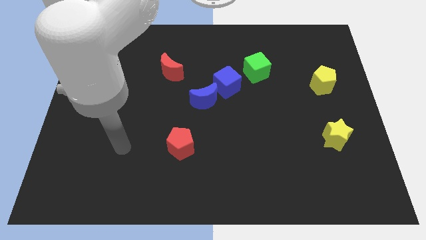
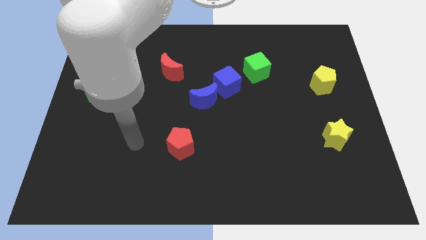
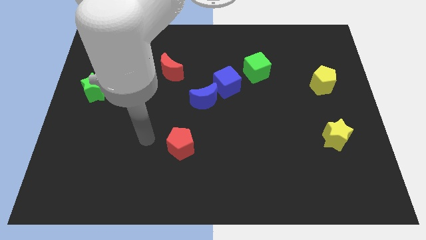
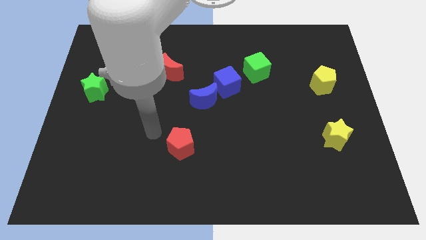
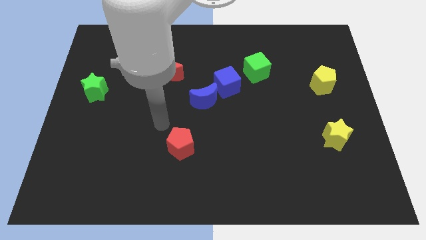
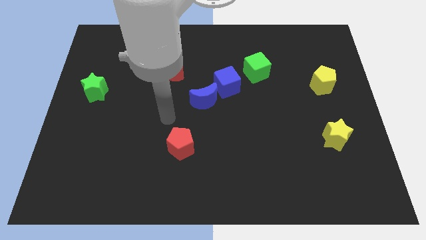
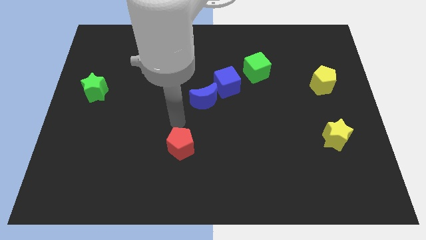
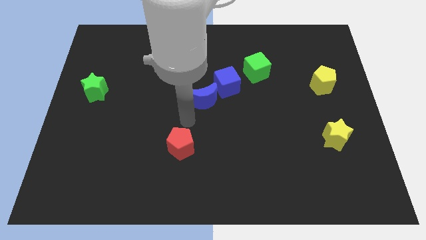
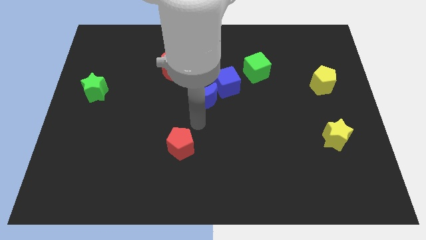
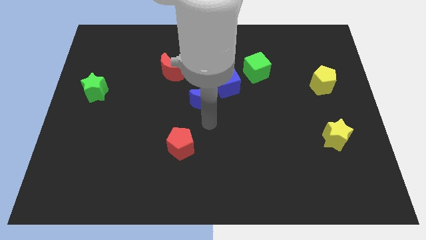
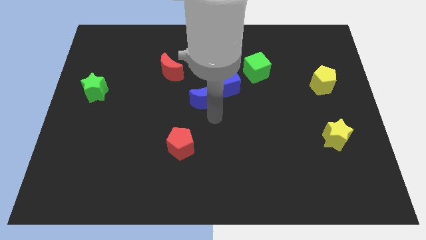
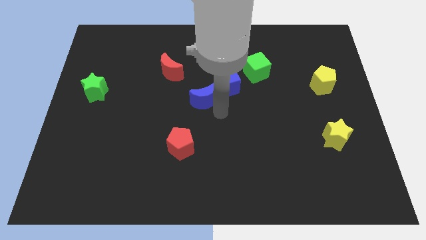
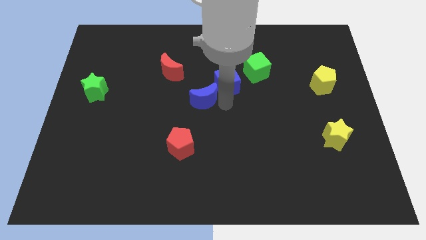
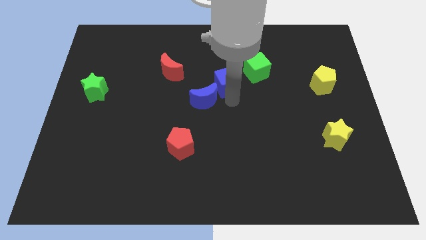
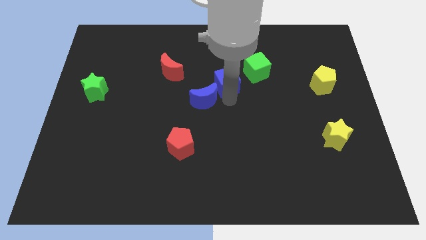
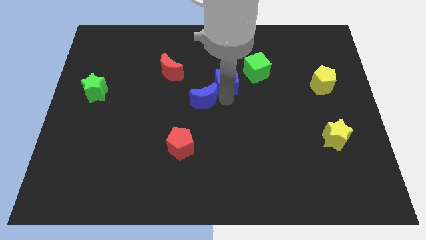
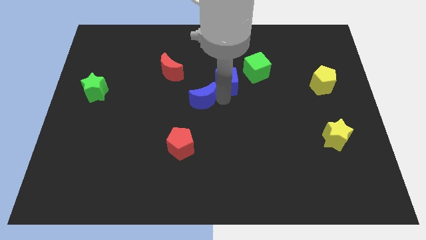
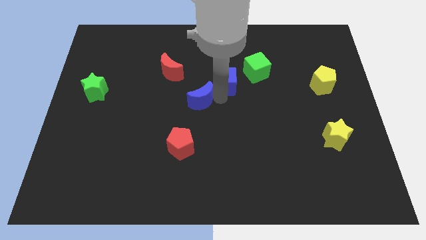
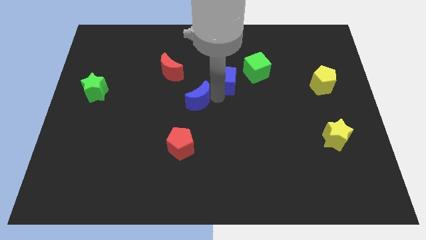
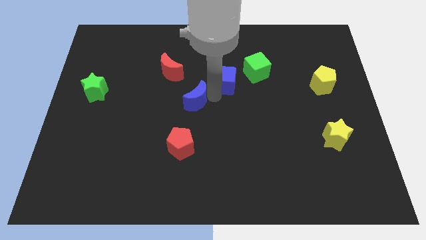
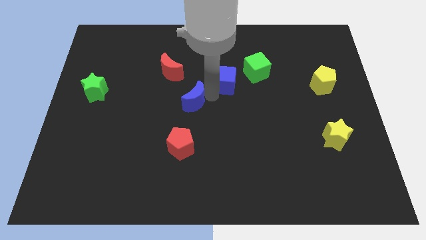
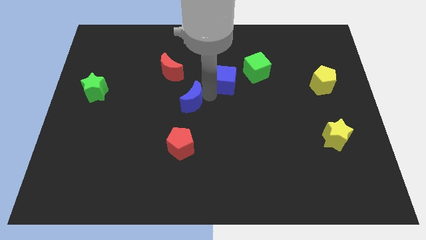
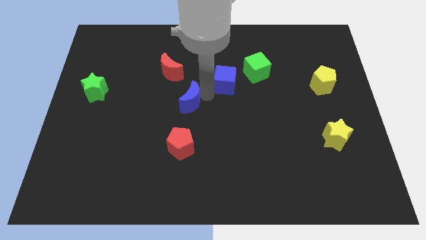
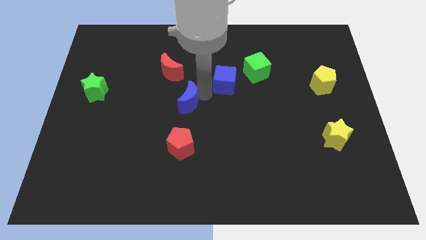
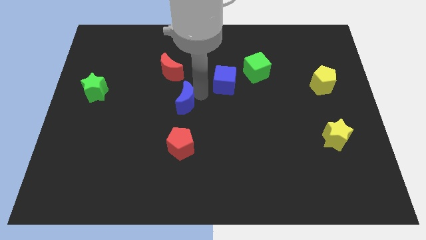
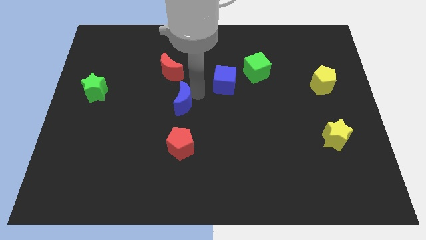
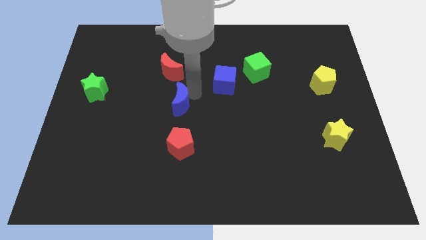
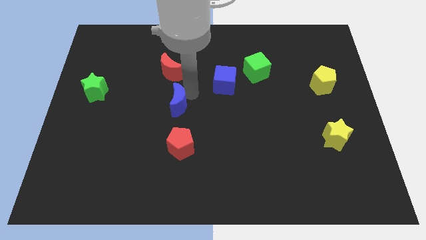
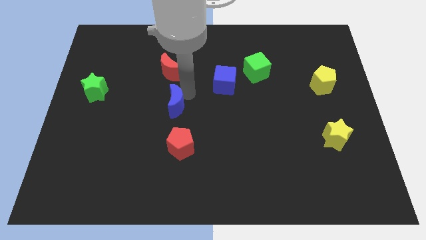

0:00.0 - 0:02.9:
move the blue moon a little bit to the left

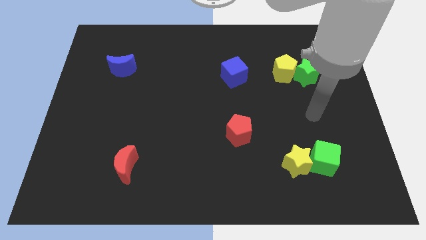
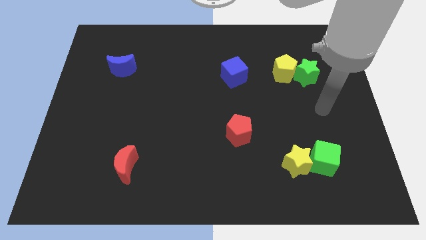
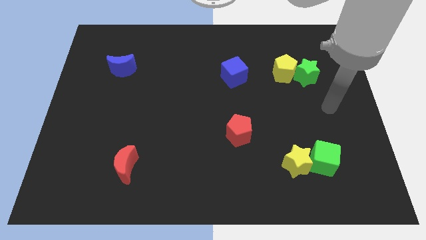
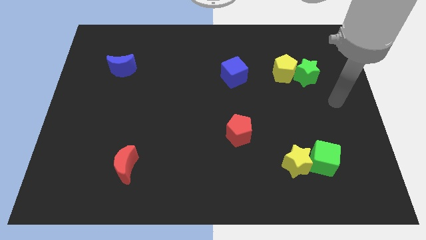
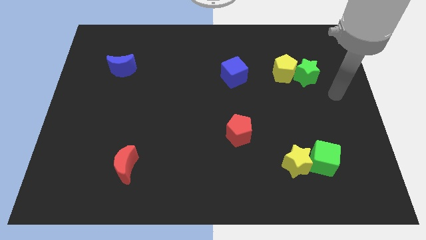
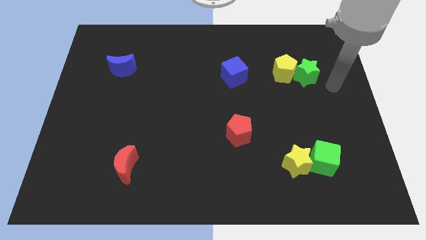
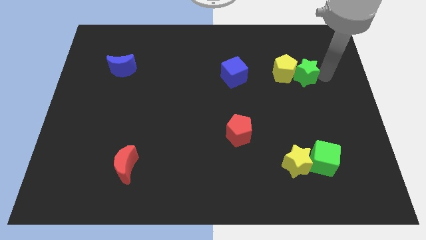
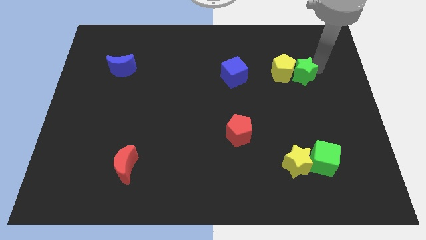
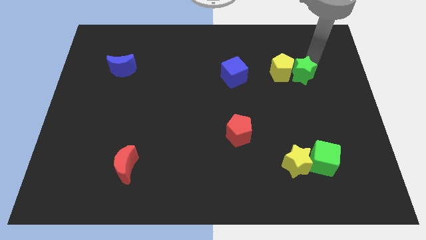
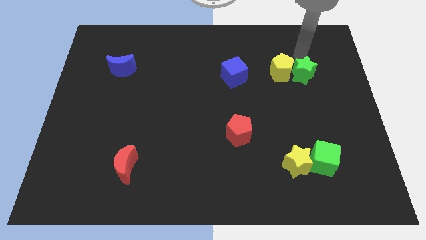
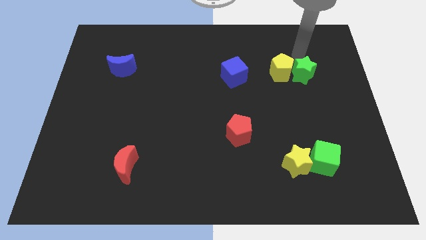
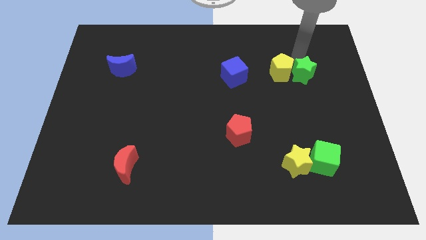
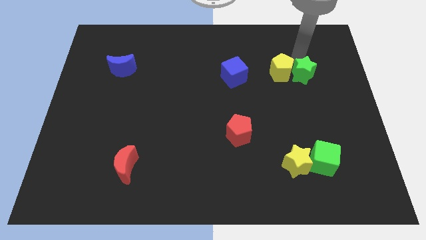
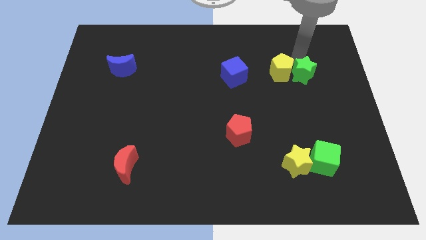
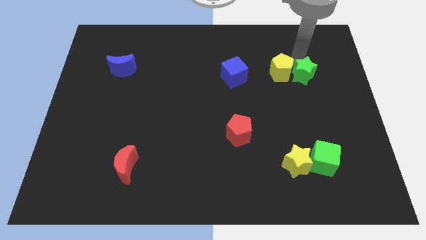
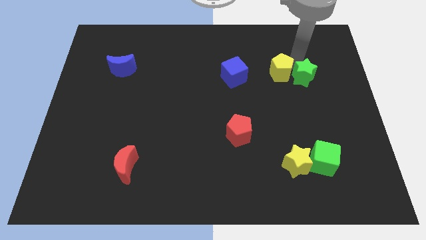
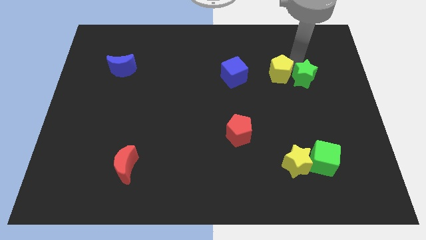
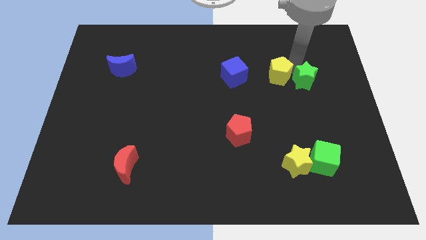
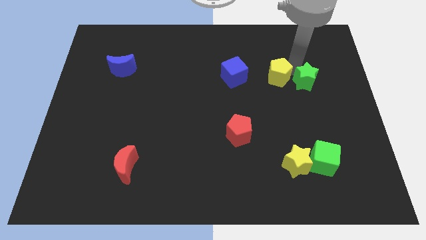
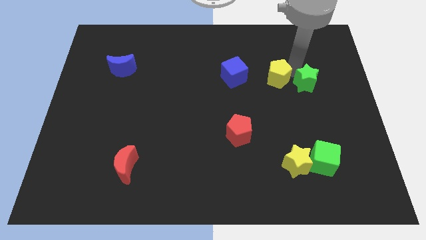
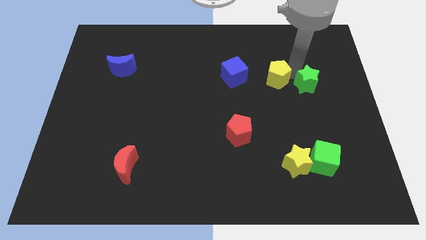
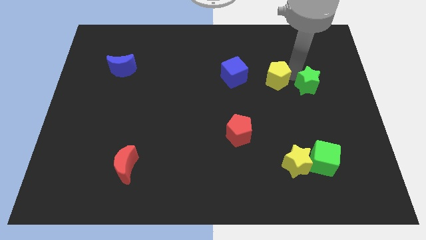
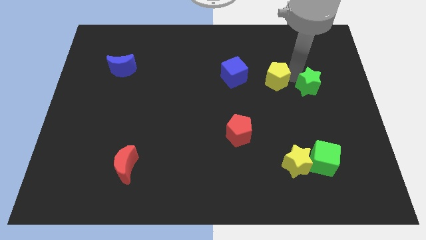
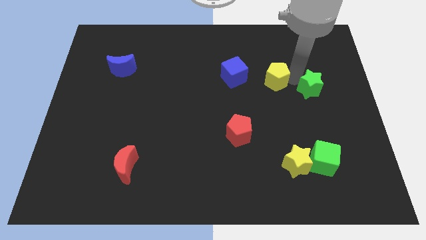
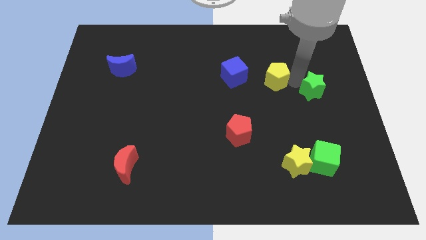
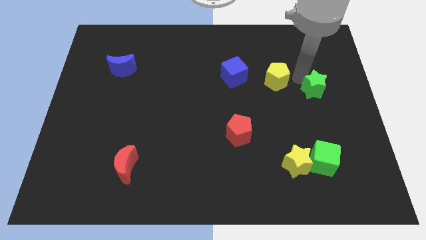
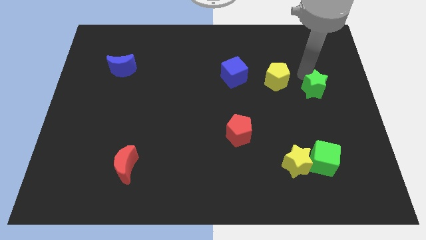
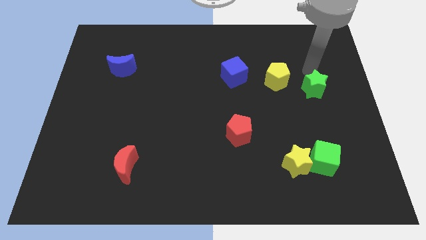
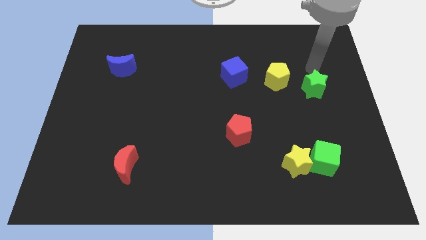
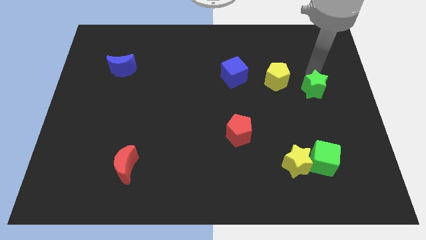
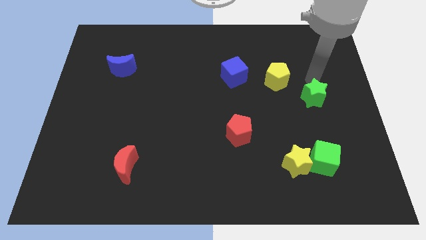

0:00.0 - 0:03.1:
push the green star slightly down

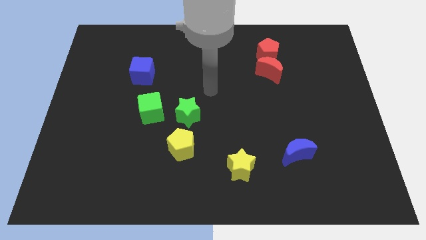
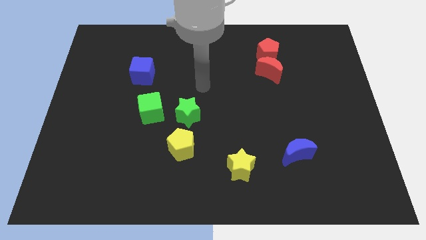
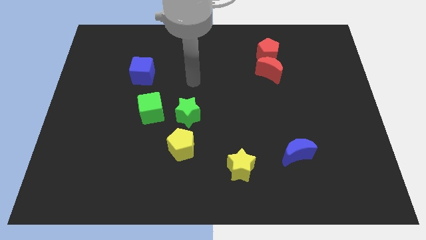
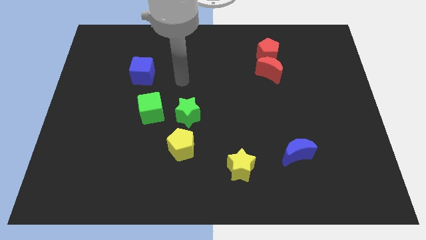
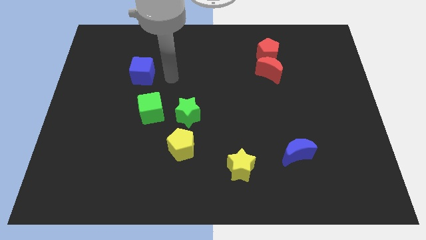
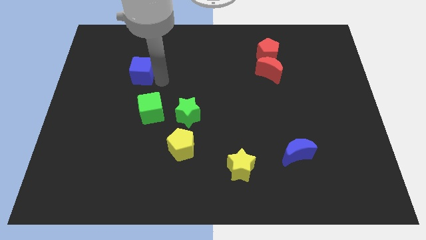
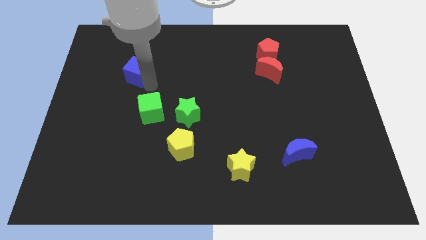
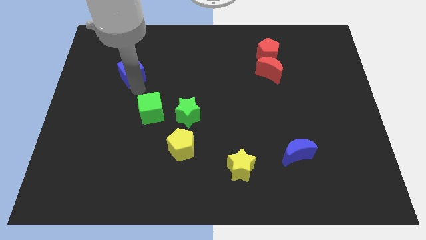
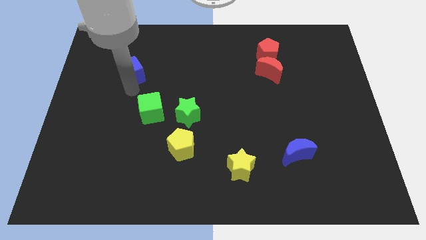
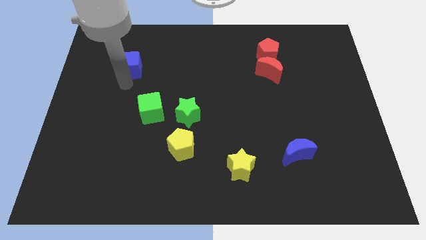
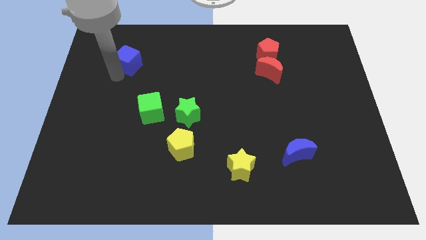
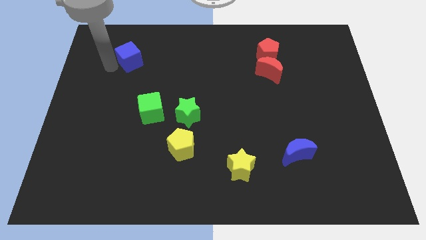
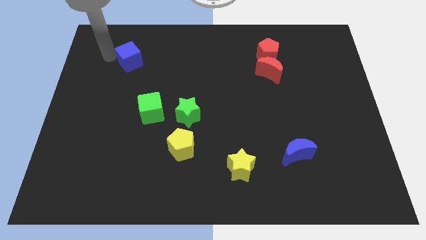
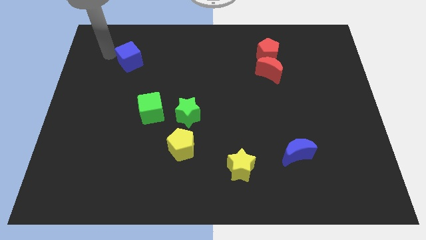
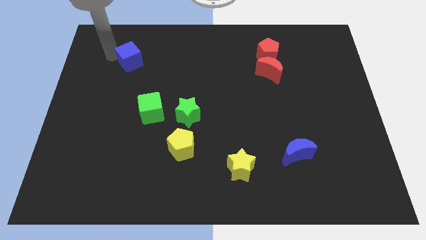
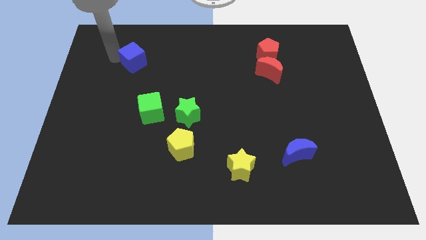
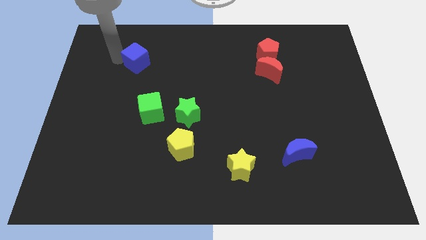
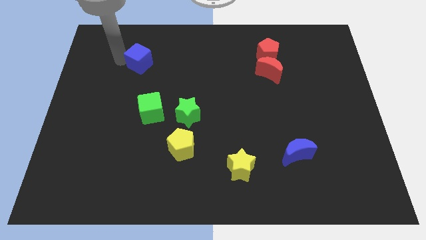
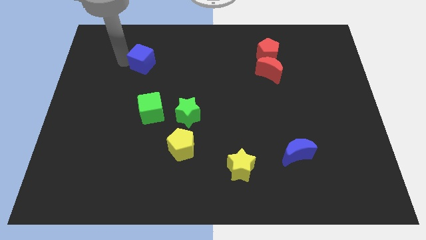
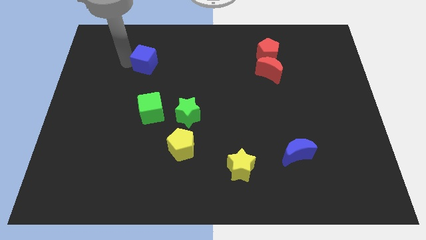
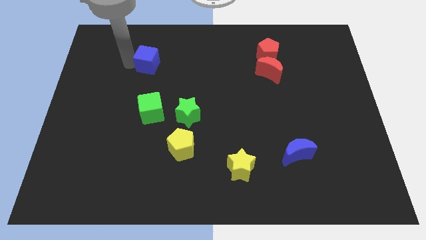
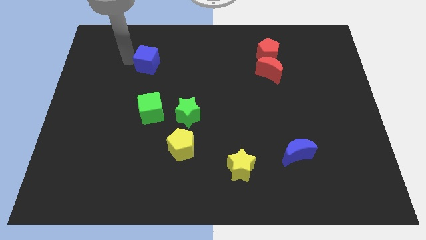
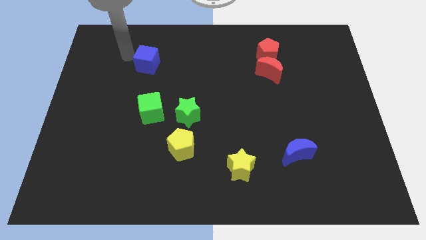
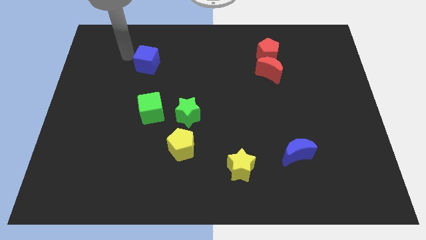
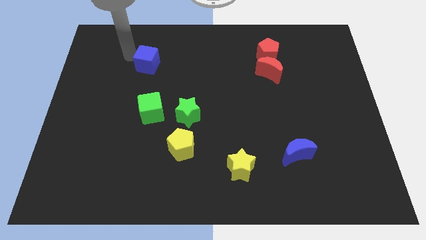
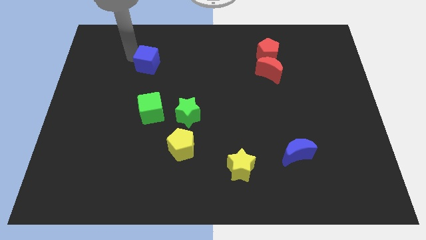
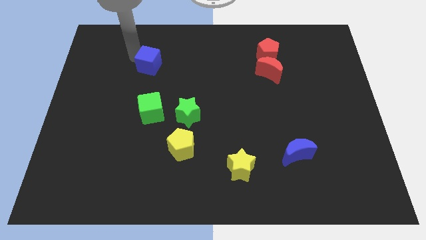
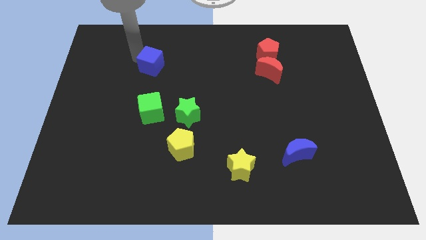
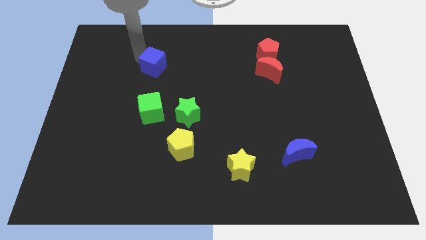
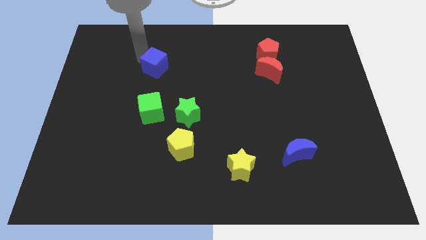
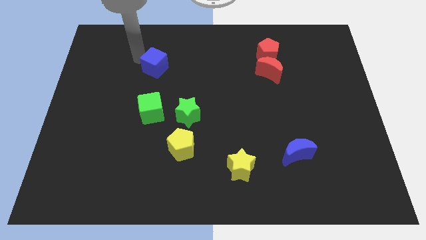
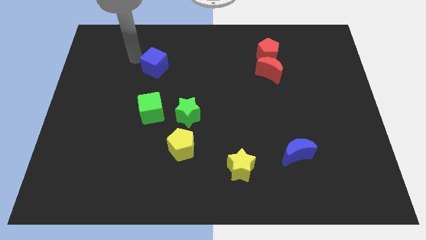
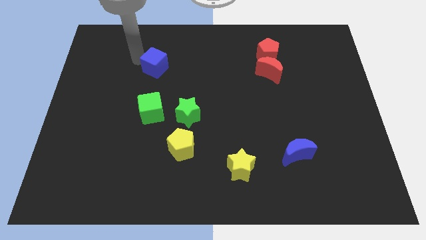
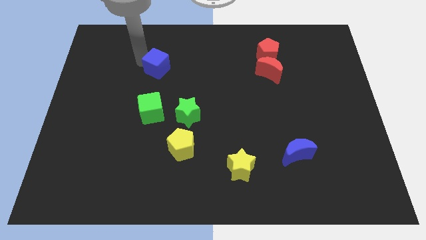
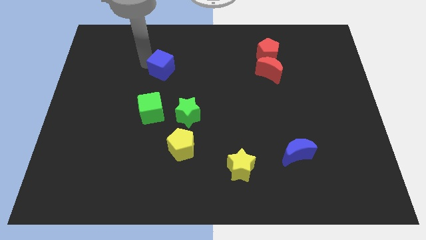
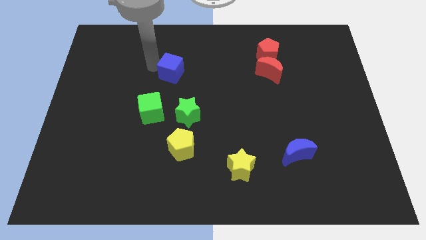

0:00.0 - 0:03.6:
move the blue cube a little right
